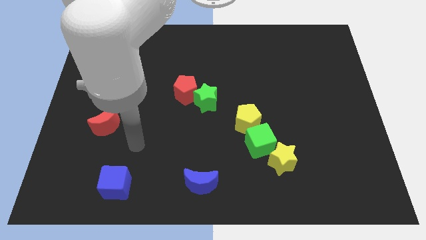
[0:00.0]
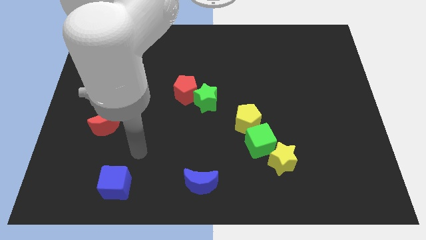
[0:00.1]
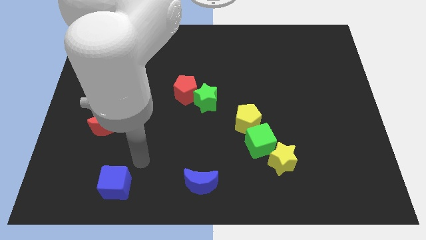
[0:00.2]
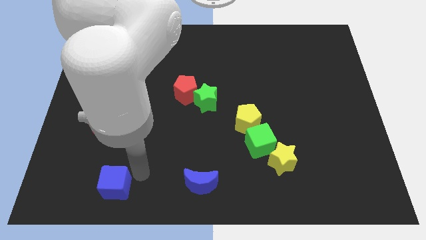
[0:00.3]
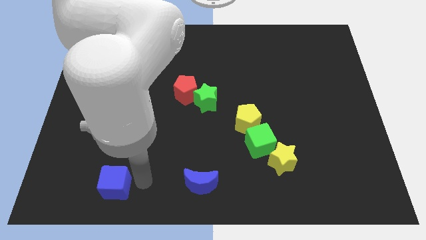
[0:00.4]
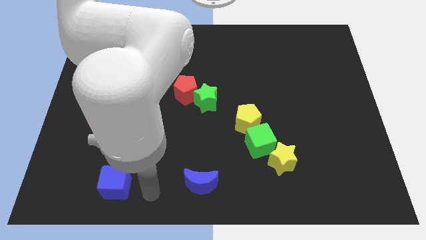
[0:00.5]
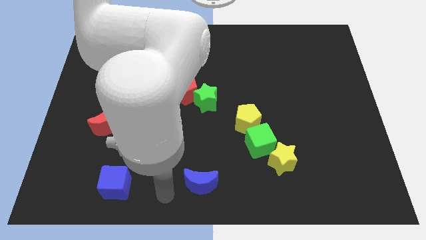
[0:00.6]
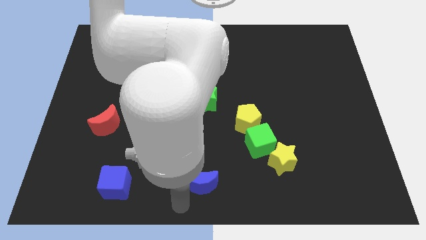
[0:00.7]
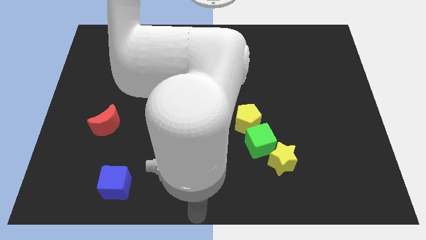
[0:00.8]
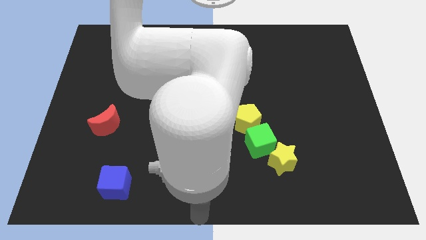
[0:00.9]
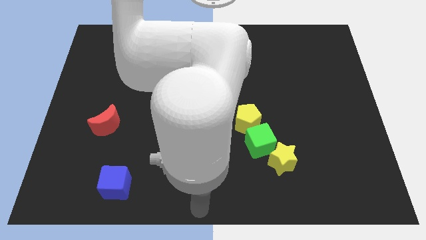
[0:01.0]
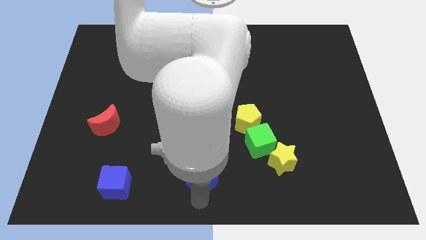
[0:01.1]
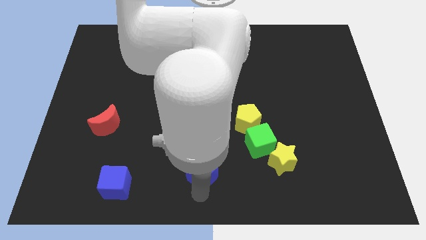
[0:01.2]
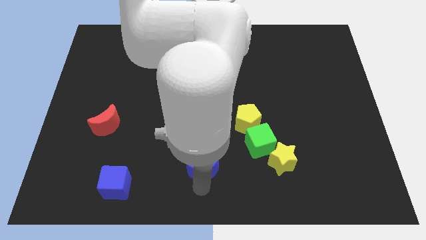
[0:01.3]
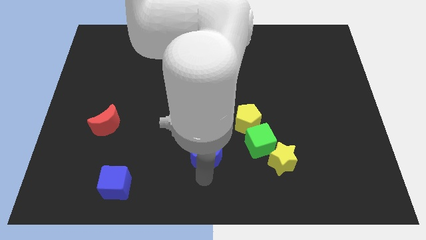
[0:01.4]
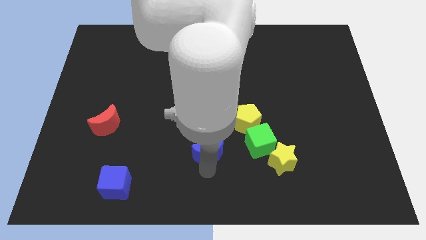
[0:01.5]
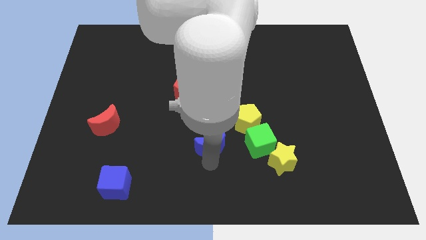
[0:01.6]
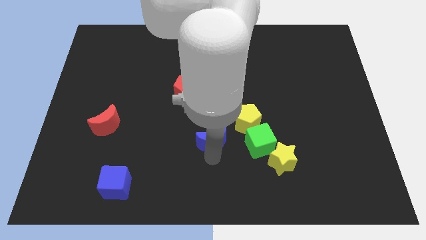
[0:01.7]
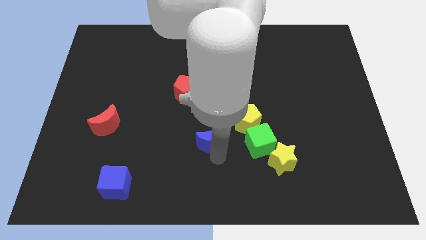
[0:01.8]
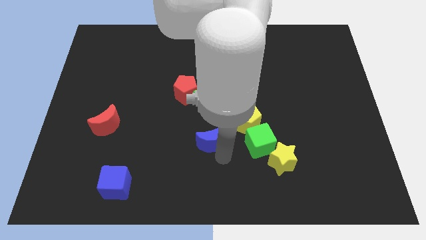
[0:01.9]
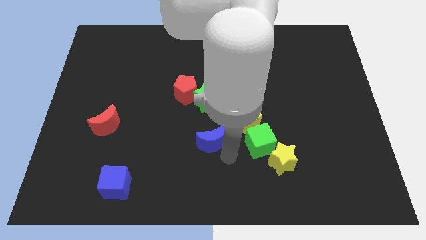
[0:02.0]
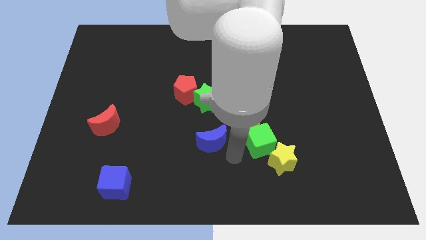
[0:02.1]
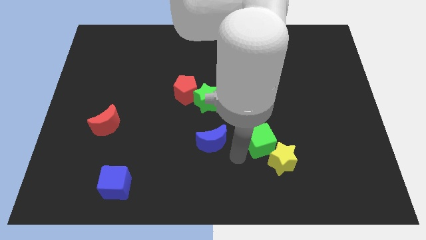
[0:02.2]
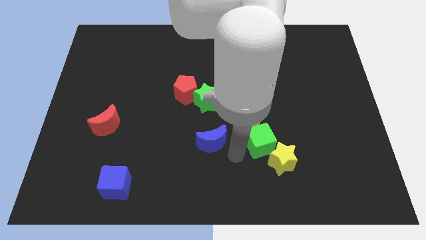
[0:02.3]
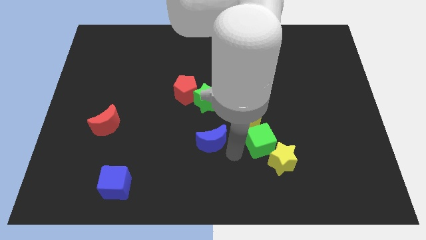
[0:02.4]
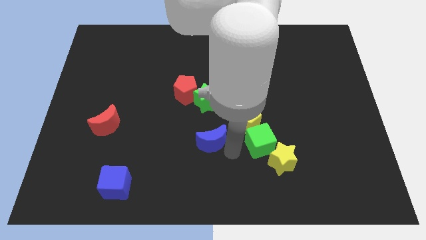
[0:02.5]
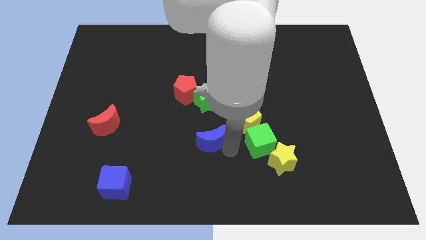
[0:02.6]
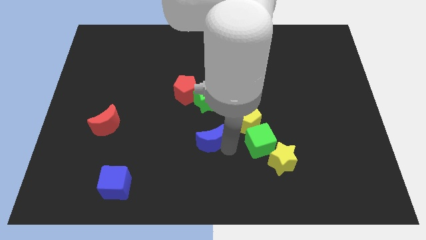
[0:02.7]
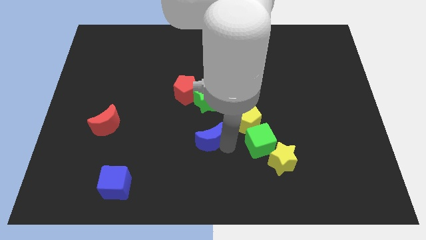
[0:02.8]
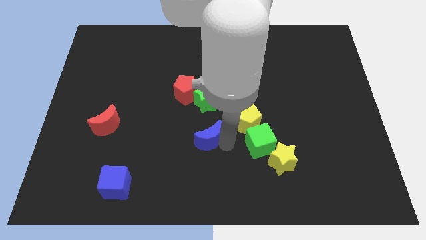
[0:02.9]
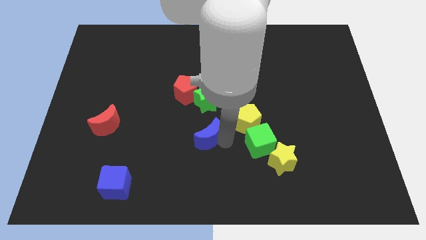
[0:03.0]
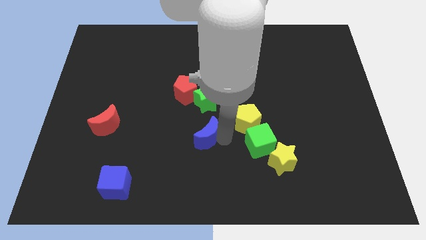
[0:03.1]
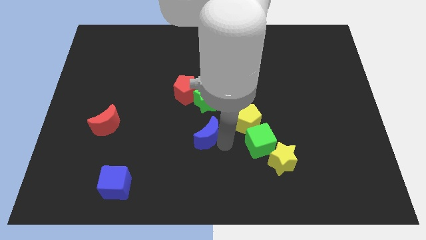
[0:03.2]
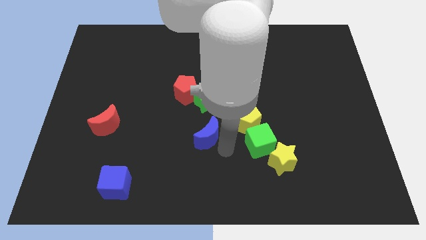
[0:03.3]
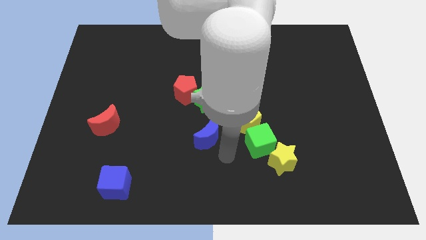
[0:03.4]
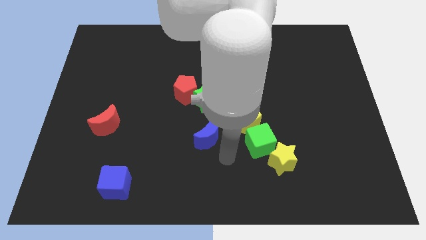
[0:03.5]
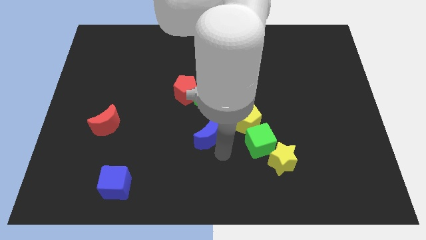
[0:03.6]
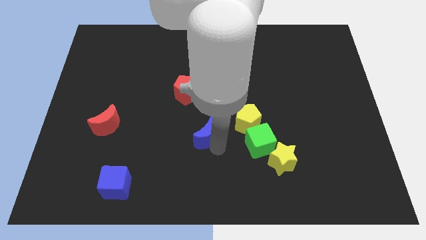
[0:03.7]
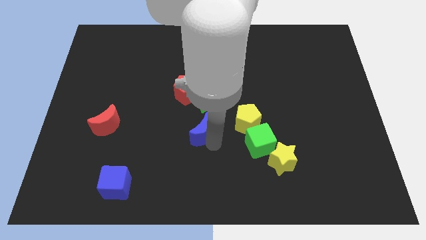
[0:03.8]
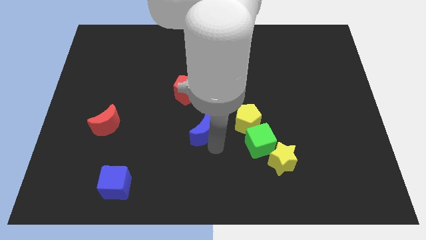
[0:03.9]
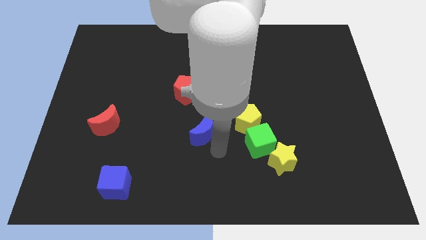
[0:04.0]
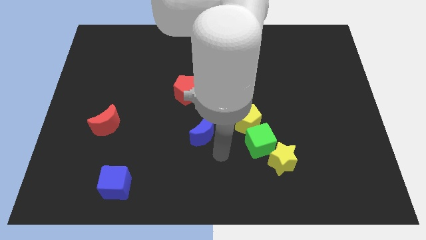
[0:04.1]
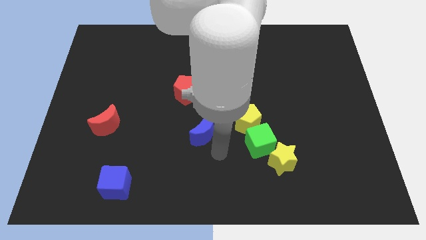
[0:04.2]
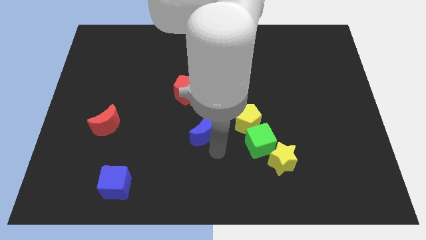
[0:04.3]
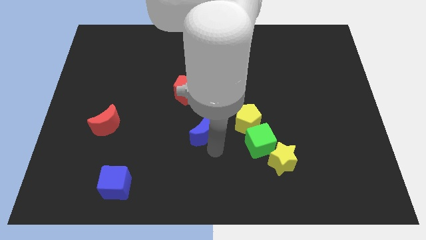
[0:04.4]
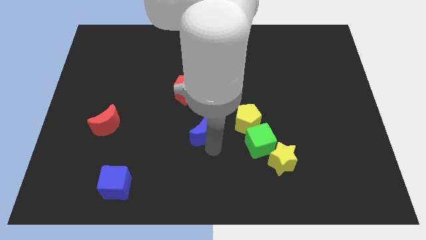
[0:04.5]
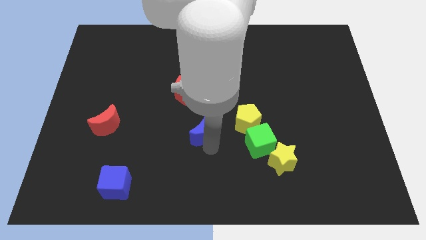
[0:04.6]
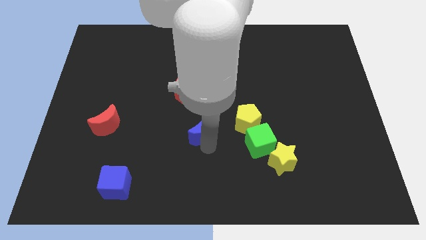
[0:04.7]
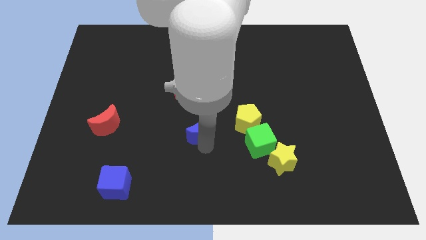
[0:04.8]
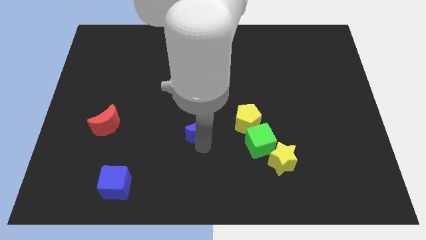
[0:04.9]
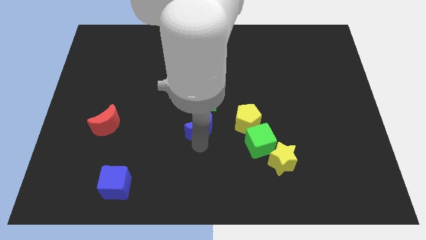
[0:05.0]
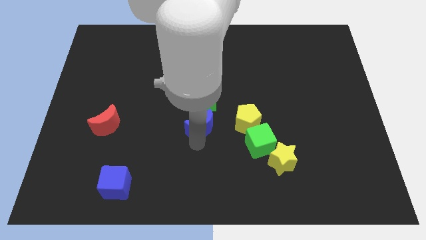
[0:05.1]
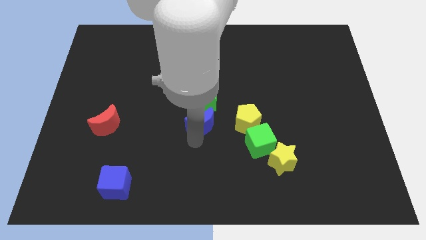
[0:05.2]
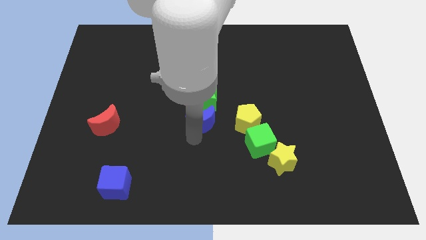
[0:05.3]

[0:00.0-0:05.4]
push the blue moon towards the green star

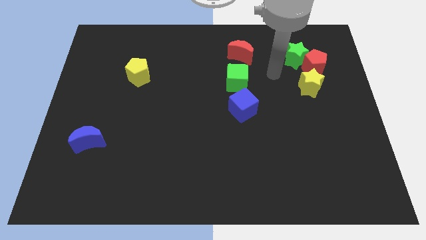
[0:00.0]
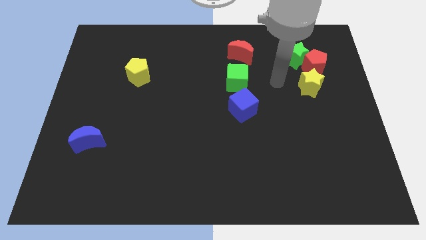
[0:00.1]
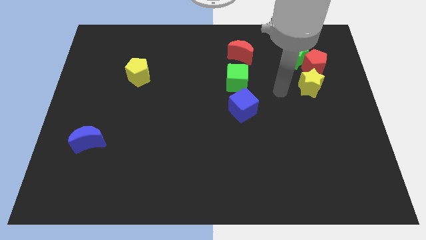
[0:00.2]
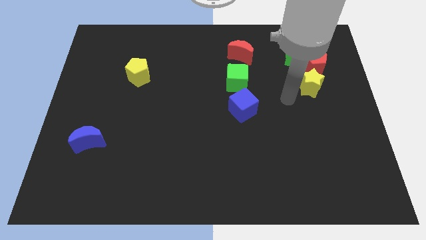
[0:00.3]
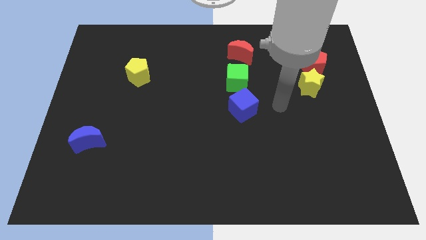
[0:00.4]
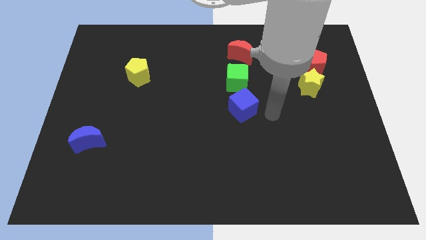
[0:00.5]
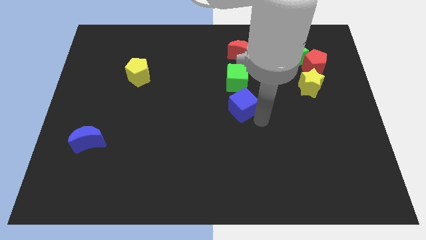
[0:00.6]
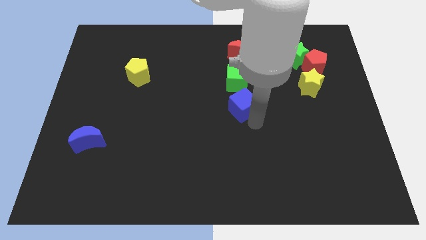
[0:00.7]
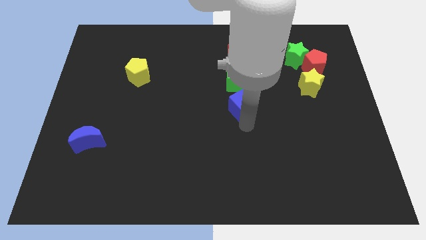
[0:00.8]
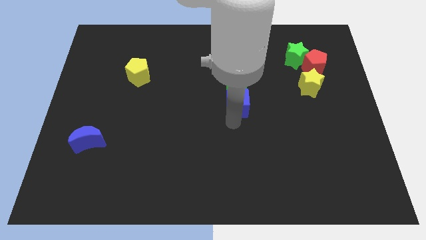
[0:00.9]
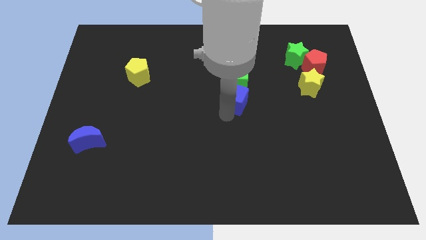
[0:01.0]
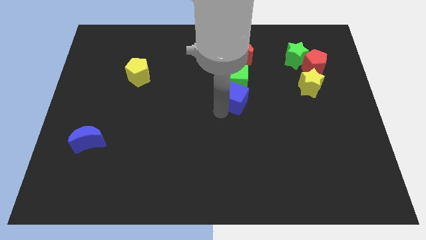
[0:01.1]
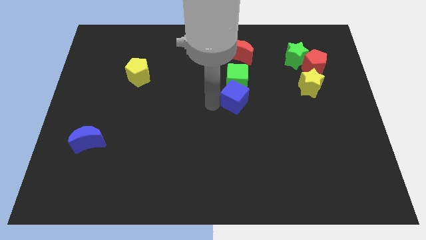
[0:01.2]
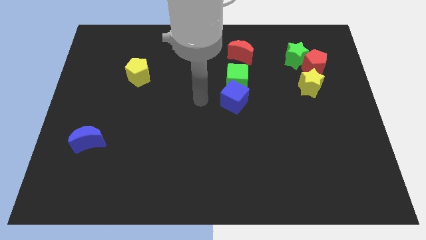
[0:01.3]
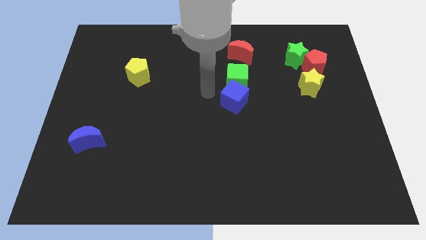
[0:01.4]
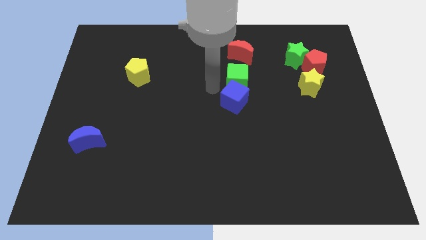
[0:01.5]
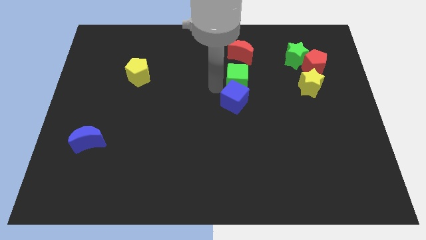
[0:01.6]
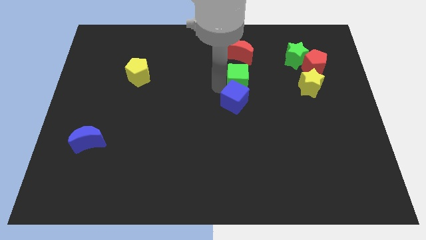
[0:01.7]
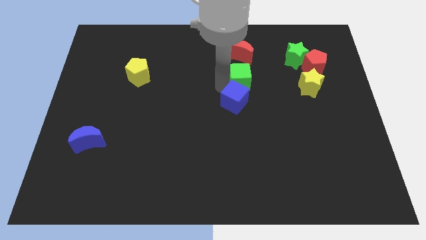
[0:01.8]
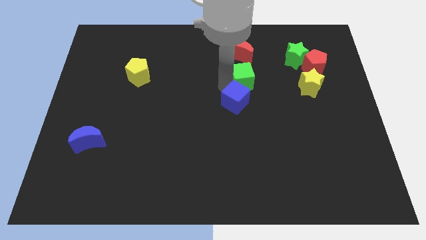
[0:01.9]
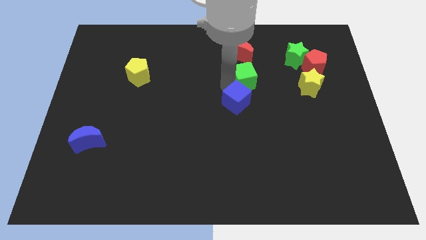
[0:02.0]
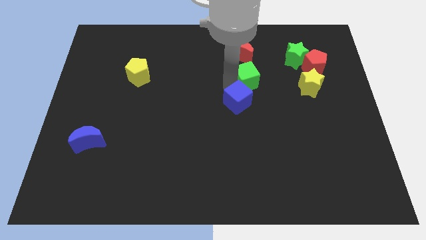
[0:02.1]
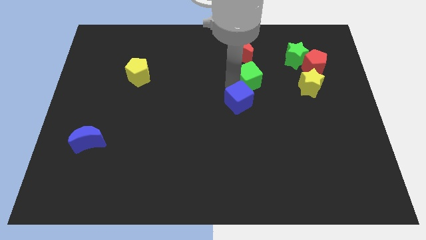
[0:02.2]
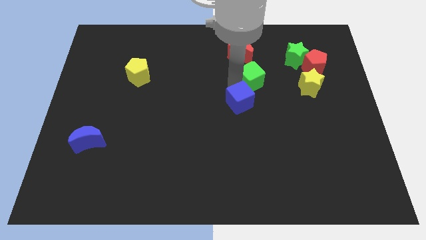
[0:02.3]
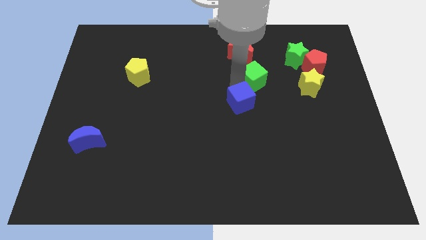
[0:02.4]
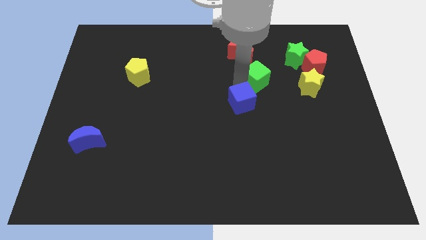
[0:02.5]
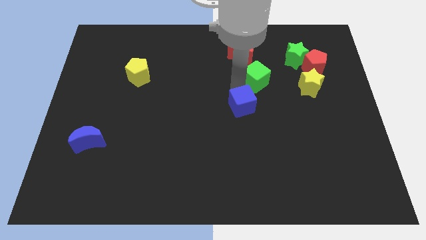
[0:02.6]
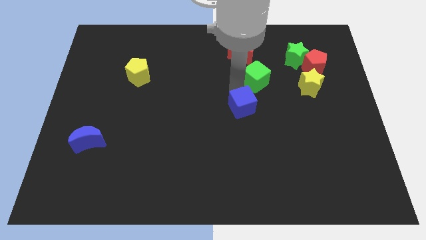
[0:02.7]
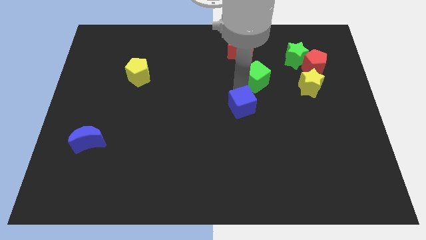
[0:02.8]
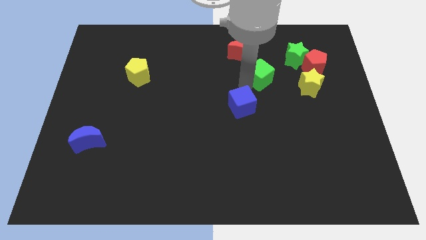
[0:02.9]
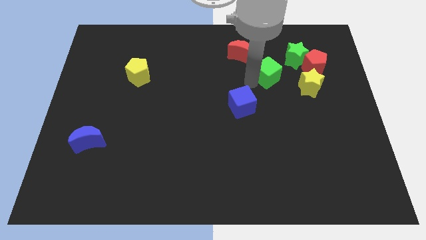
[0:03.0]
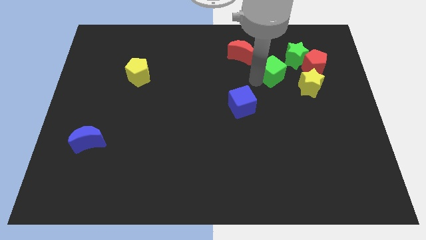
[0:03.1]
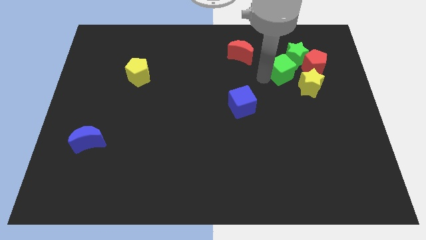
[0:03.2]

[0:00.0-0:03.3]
slide the green cube towards the green star
